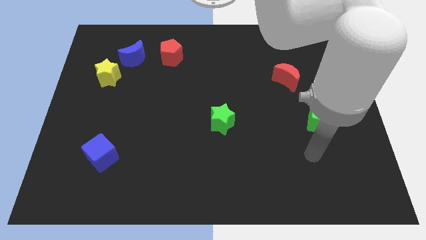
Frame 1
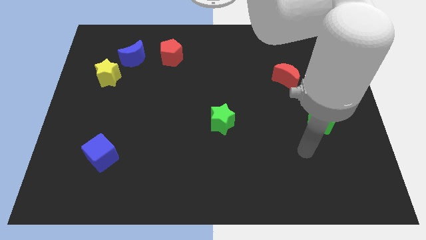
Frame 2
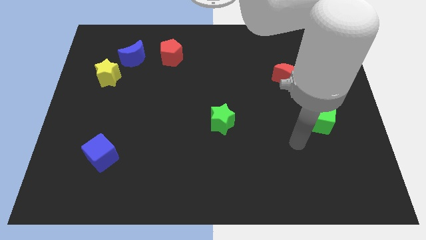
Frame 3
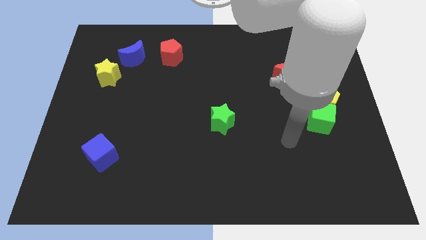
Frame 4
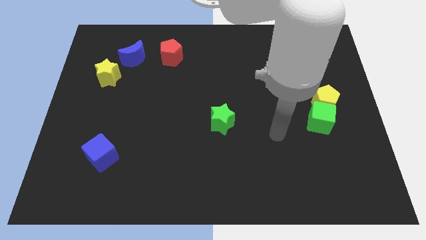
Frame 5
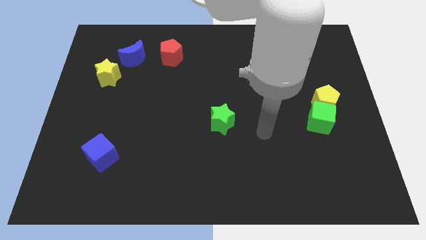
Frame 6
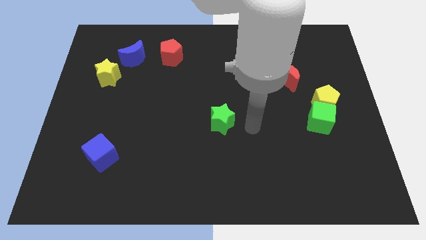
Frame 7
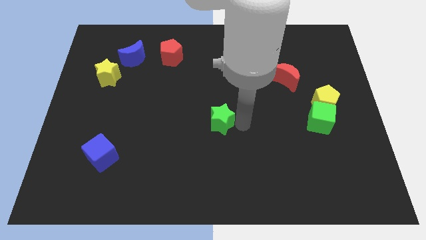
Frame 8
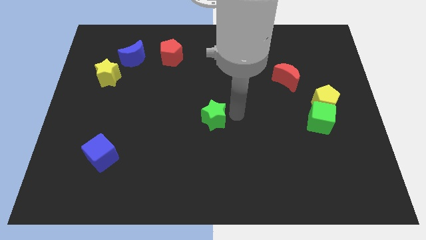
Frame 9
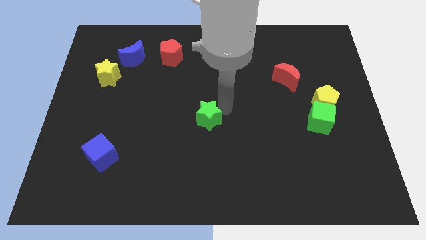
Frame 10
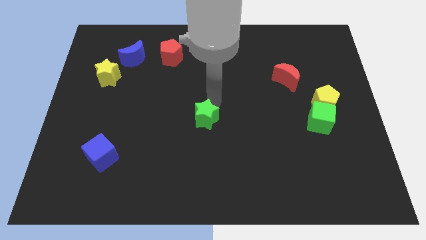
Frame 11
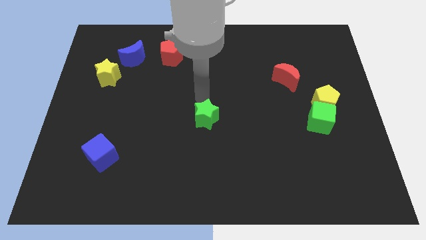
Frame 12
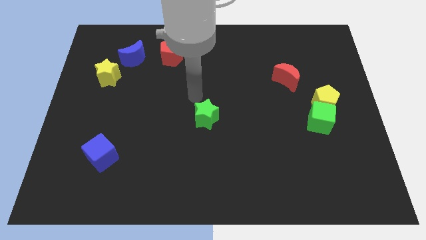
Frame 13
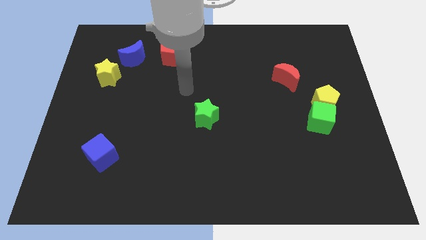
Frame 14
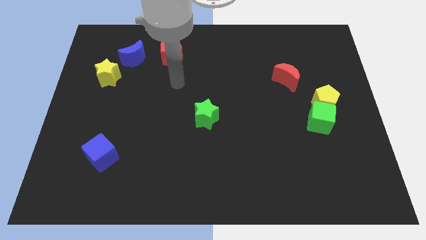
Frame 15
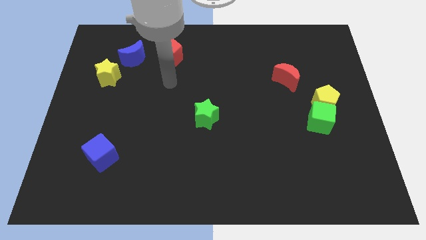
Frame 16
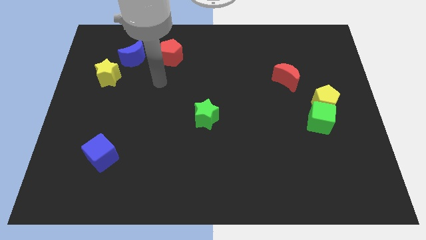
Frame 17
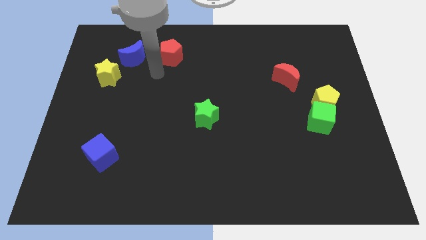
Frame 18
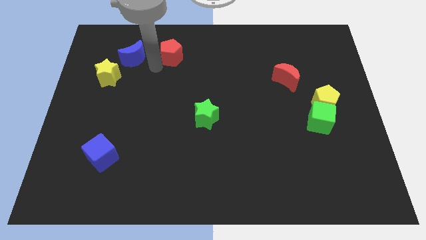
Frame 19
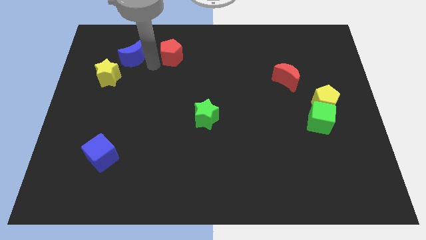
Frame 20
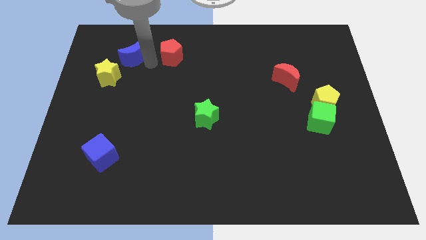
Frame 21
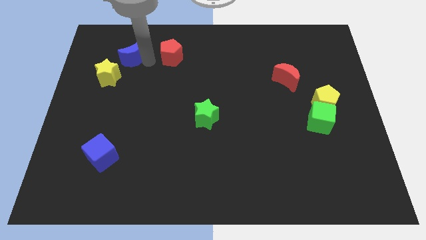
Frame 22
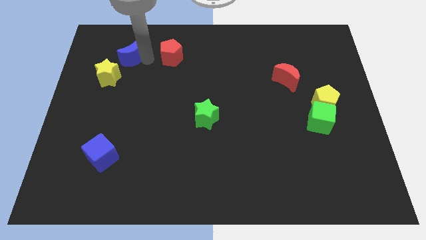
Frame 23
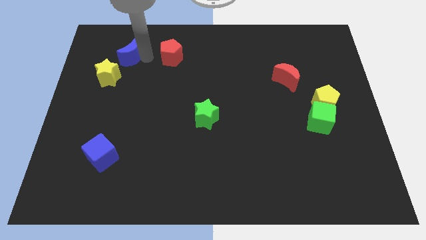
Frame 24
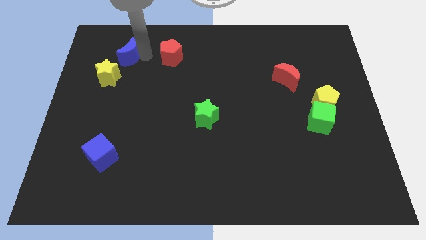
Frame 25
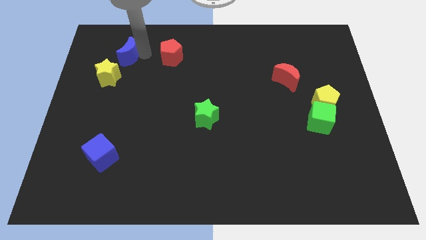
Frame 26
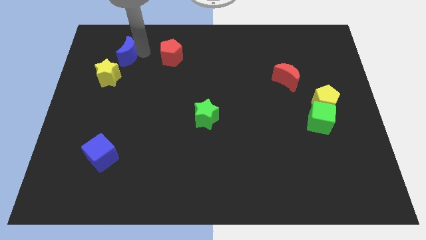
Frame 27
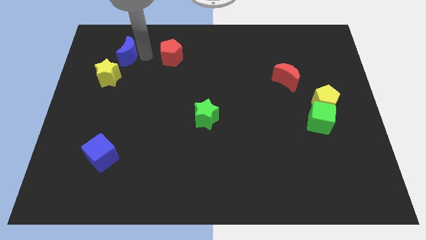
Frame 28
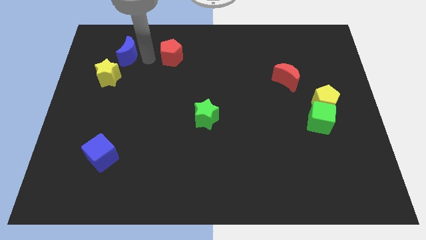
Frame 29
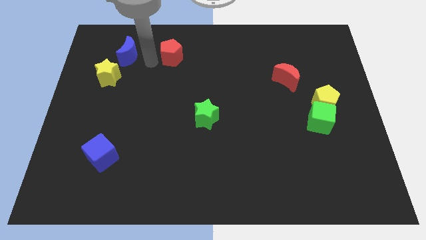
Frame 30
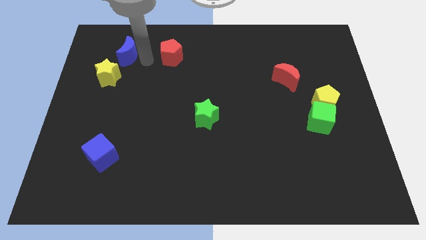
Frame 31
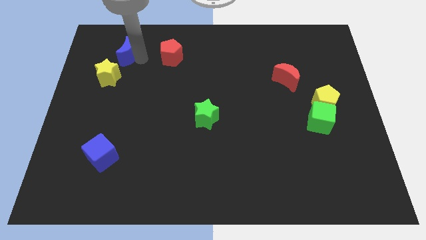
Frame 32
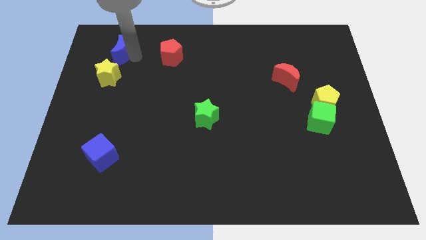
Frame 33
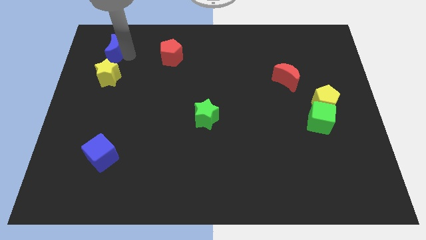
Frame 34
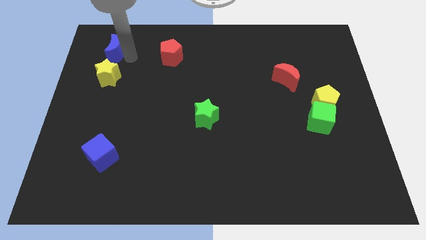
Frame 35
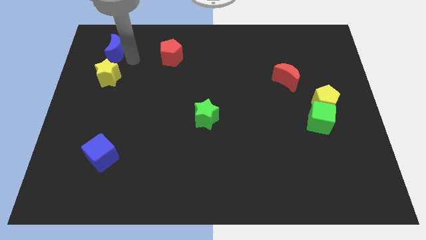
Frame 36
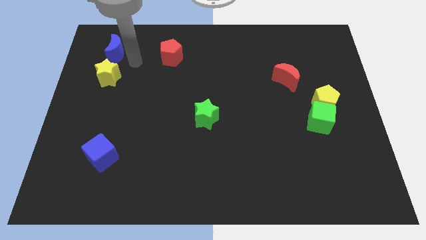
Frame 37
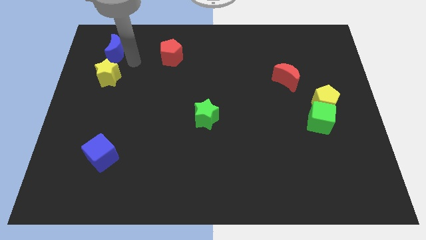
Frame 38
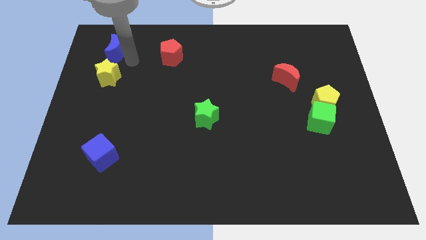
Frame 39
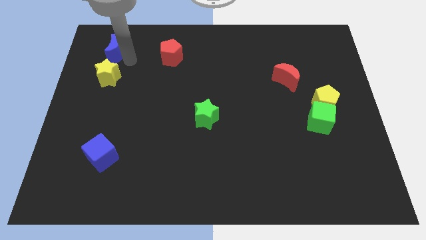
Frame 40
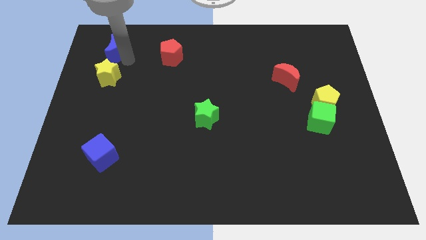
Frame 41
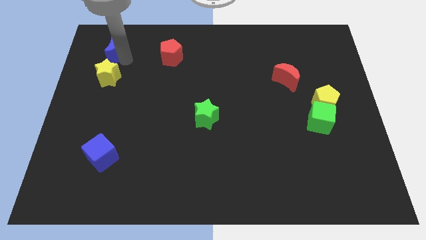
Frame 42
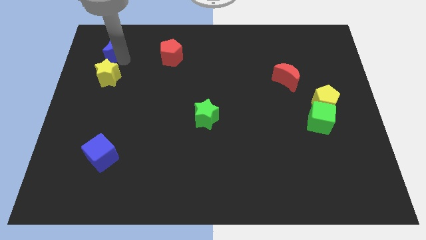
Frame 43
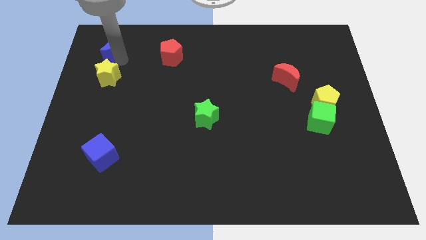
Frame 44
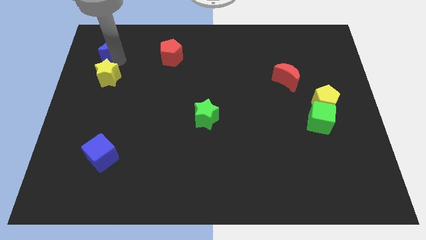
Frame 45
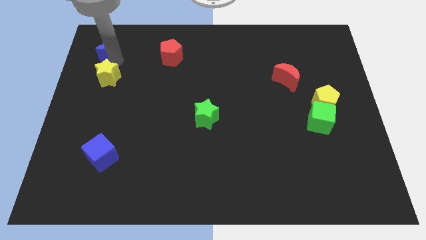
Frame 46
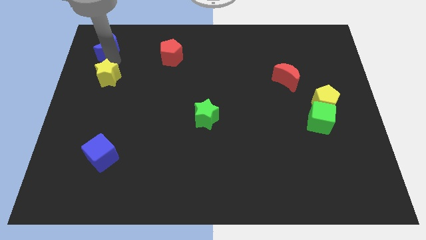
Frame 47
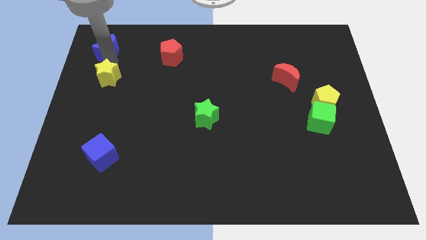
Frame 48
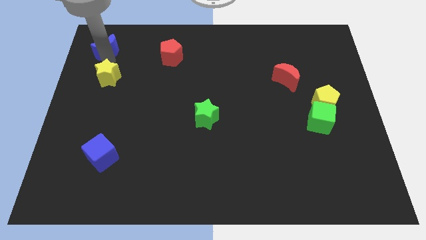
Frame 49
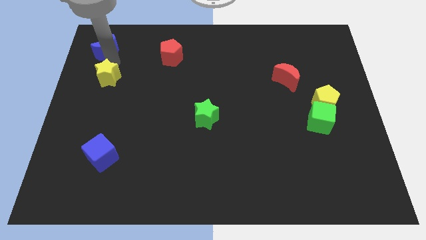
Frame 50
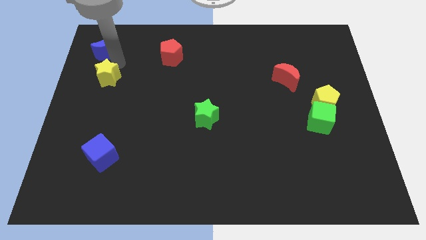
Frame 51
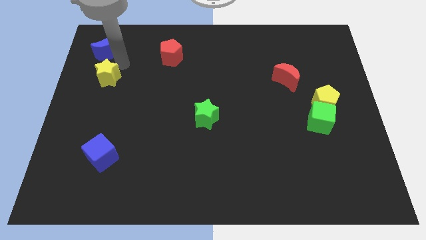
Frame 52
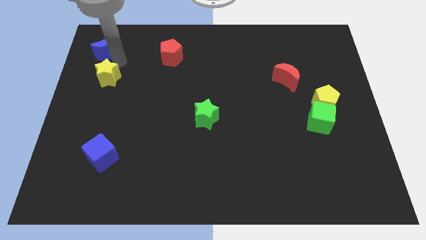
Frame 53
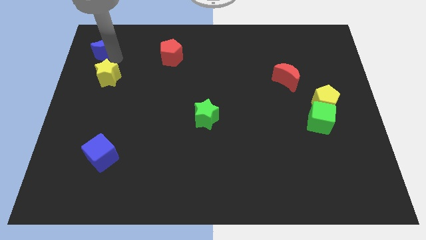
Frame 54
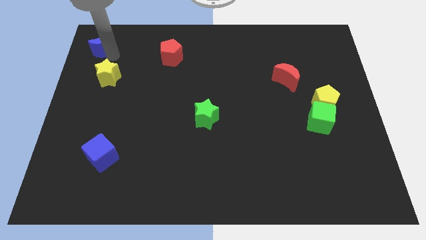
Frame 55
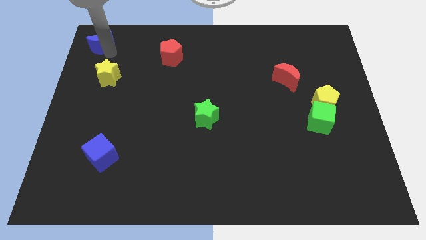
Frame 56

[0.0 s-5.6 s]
put the blue moon to the top left of the board

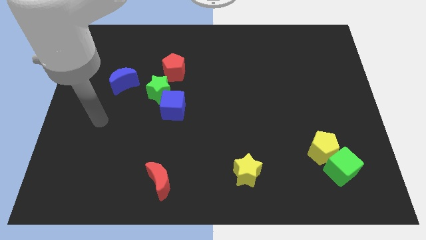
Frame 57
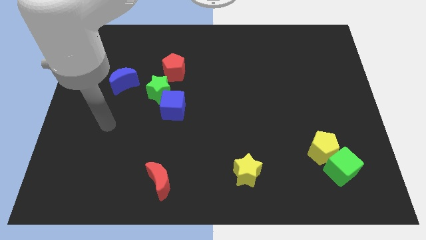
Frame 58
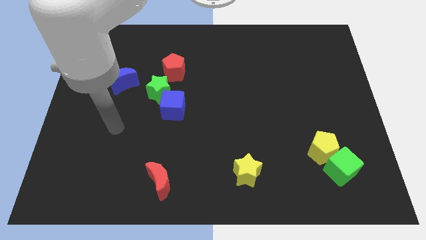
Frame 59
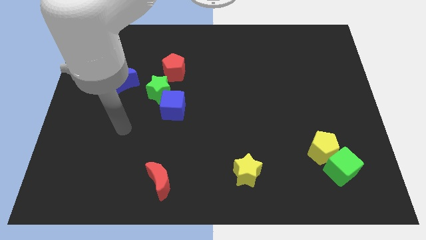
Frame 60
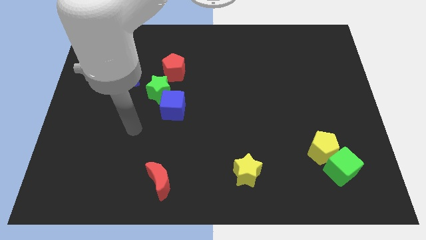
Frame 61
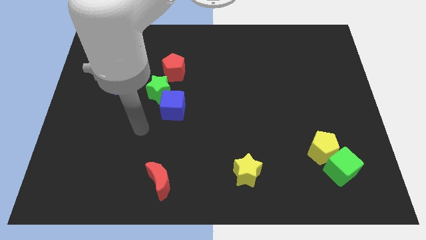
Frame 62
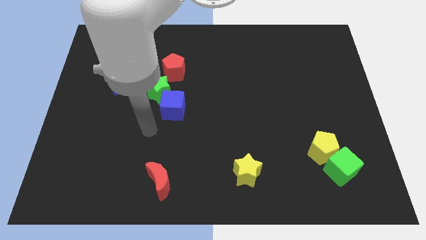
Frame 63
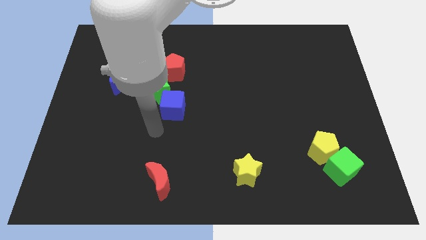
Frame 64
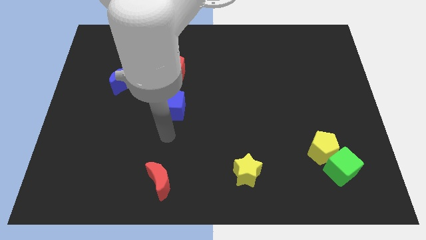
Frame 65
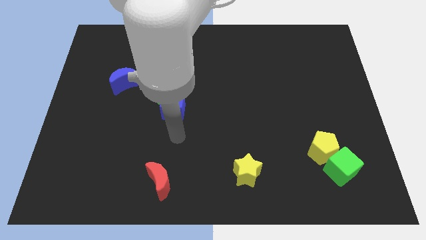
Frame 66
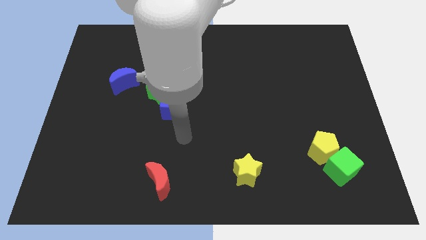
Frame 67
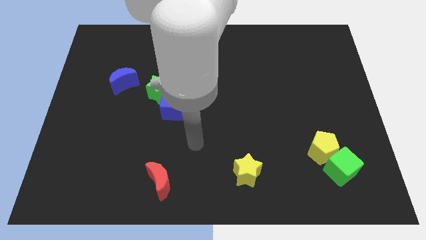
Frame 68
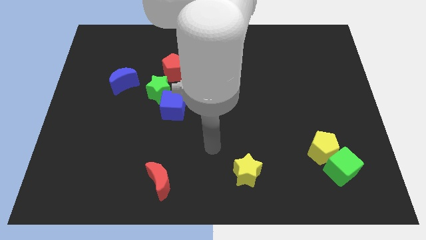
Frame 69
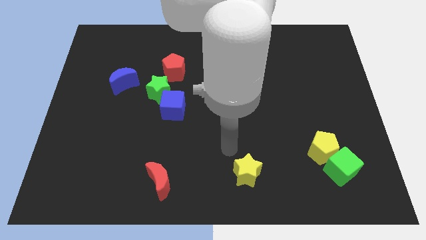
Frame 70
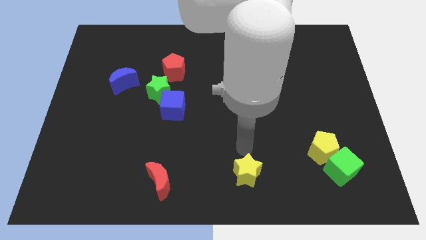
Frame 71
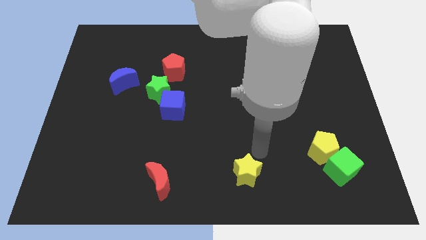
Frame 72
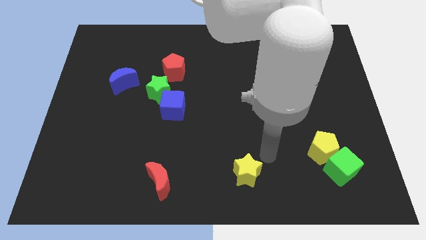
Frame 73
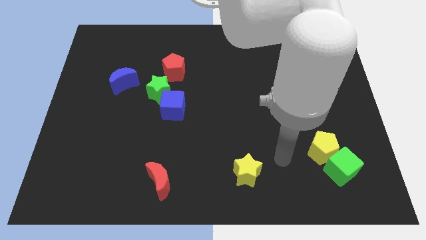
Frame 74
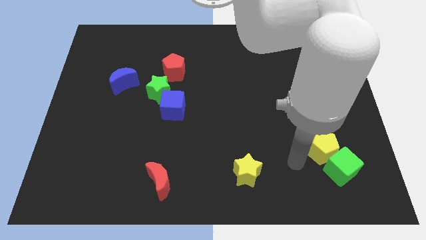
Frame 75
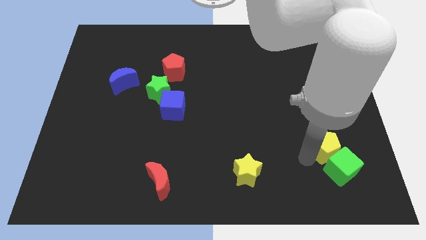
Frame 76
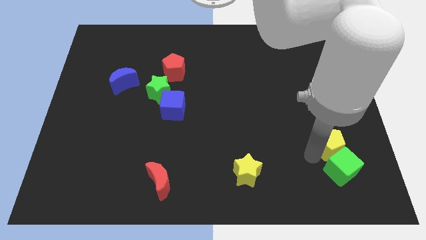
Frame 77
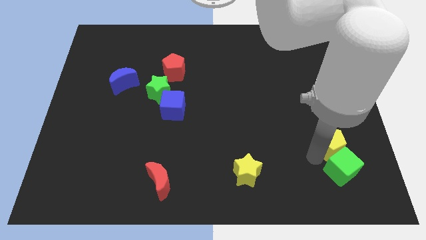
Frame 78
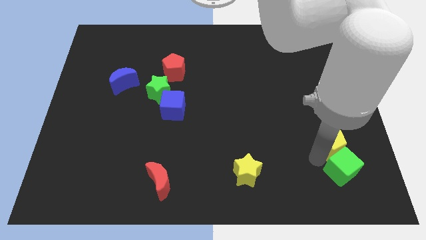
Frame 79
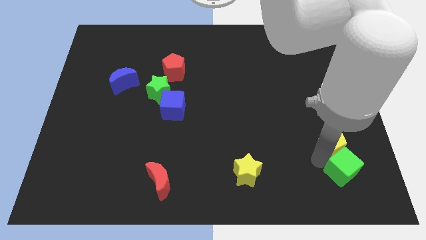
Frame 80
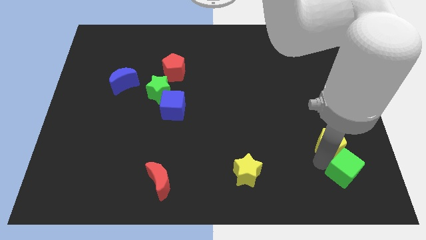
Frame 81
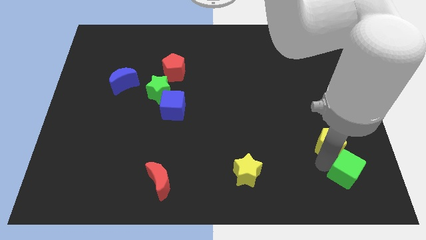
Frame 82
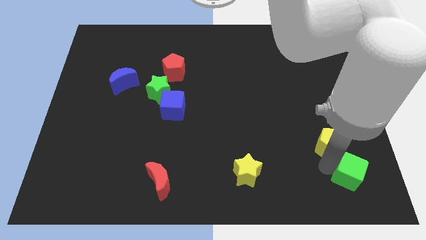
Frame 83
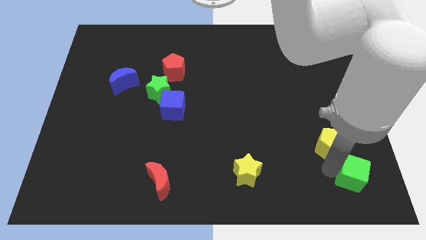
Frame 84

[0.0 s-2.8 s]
slide the green cube to the bottom right of the board
